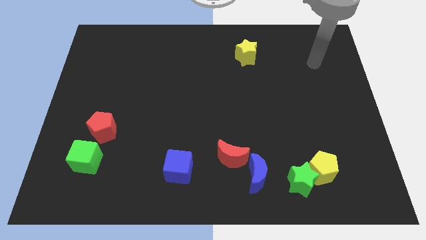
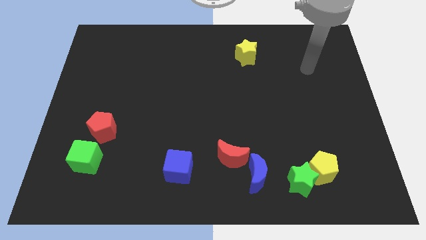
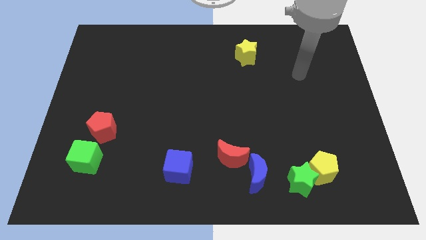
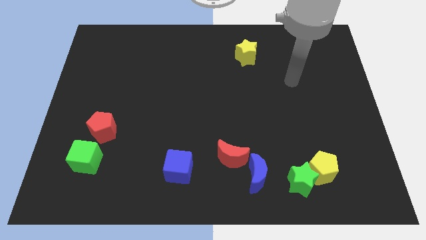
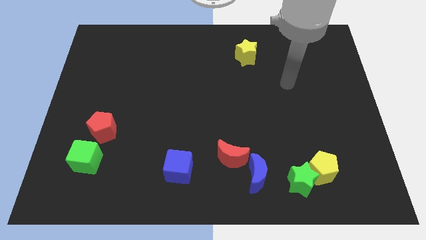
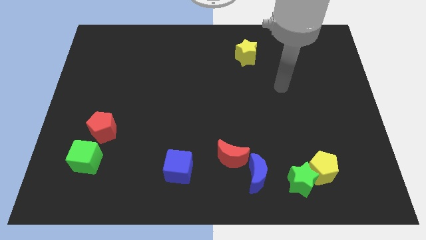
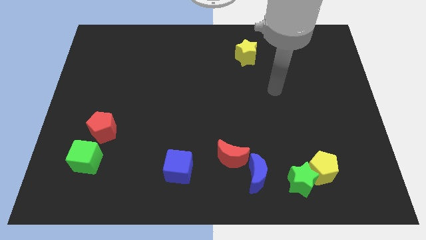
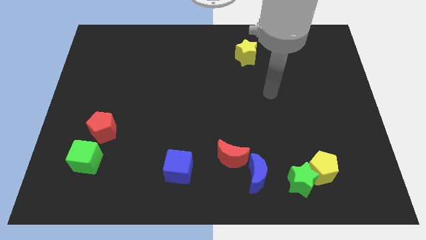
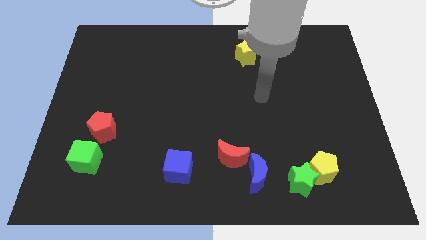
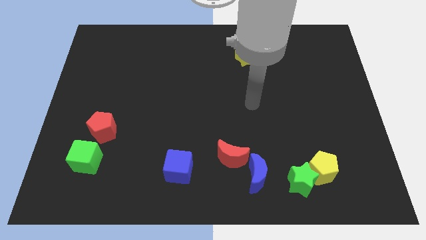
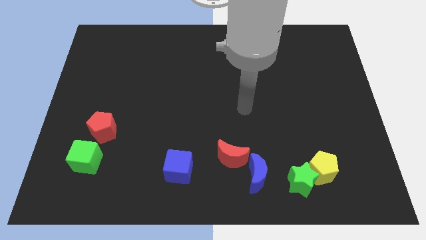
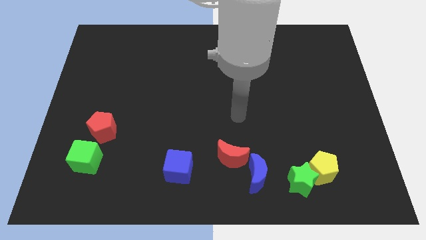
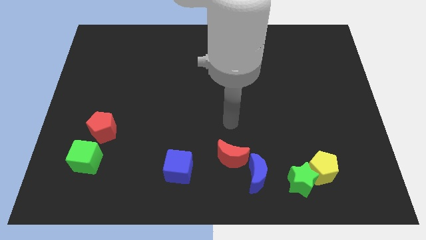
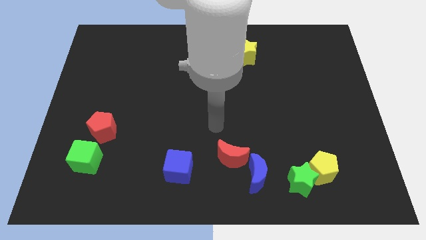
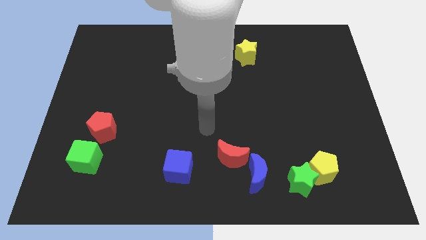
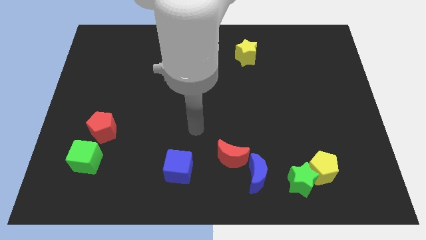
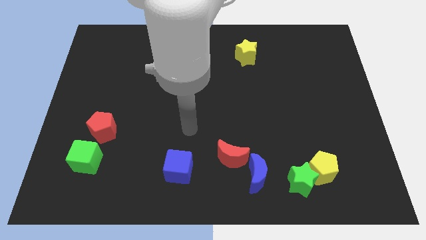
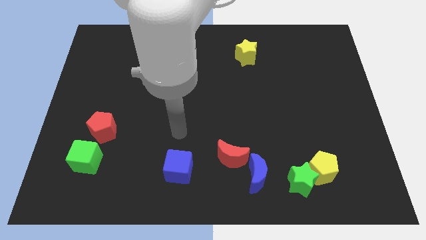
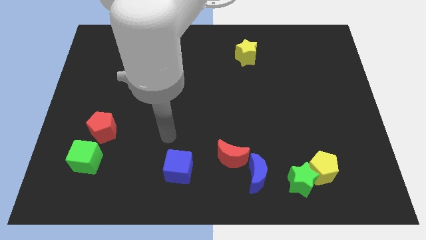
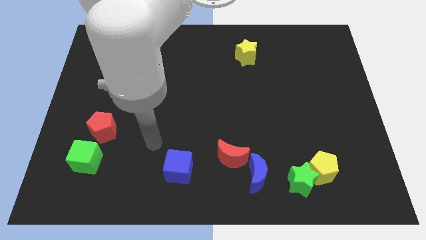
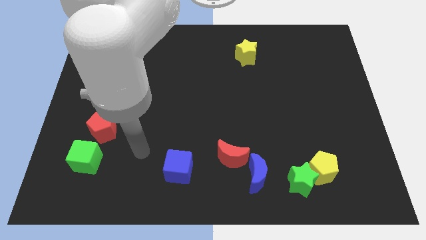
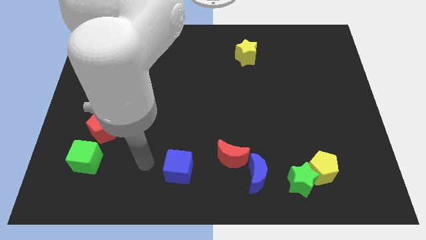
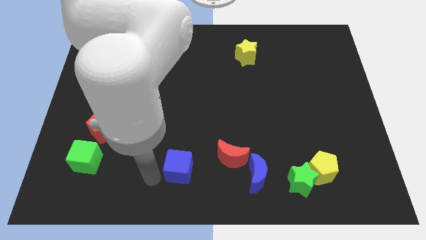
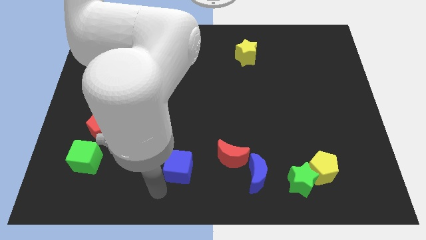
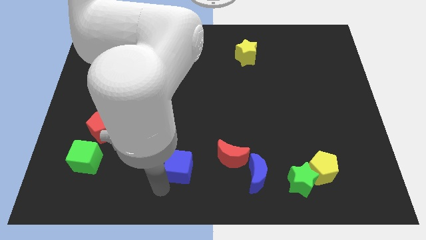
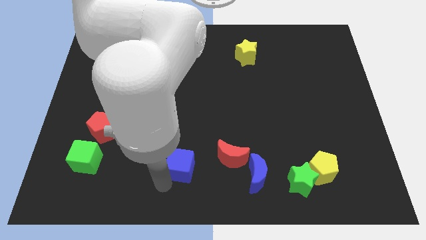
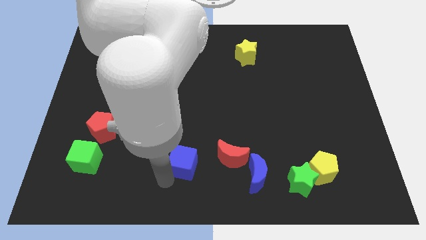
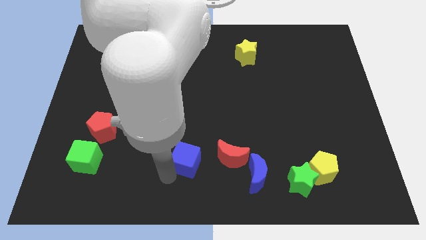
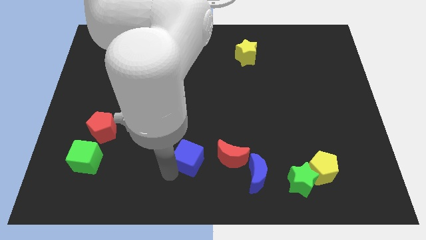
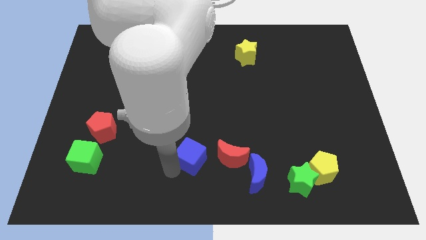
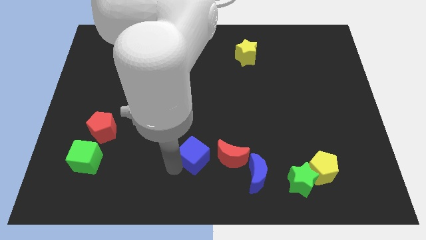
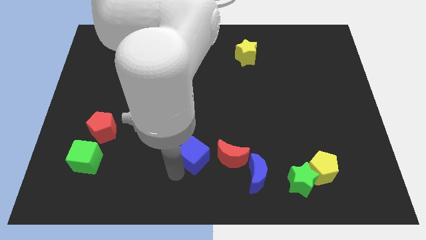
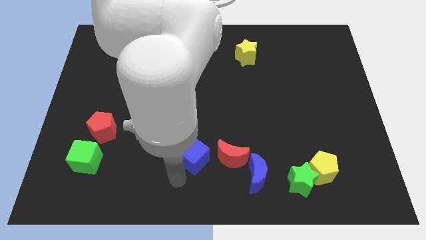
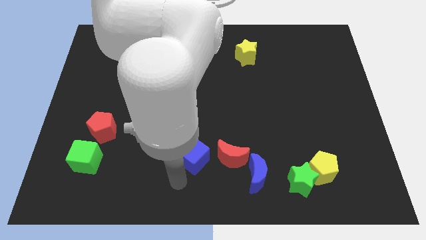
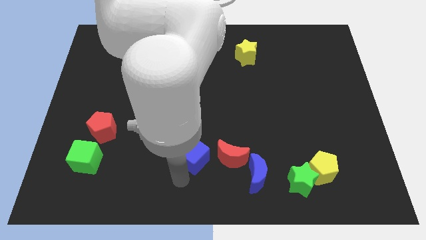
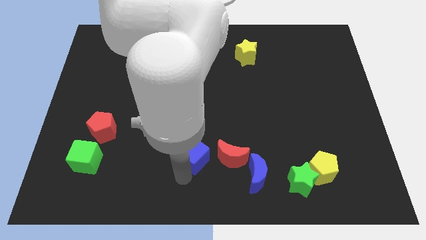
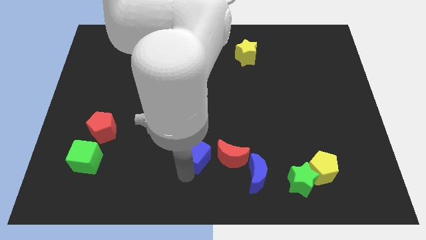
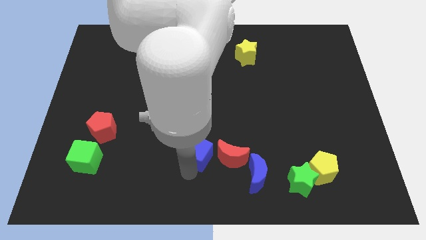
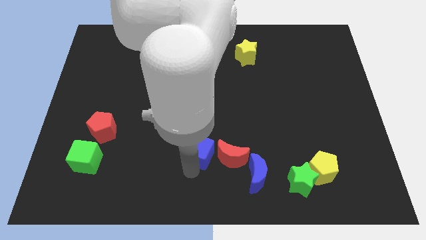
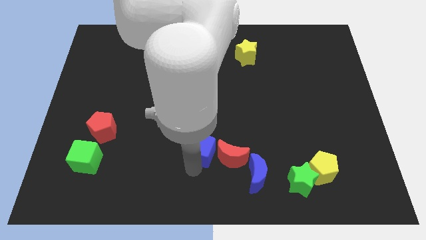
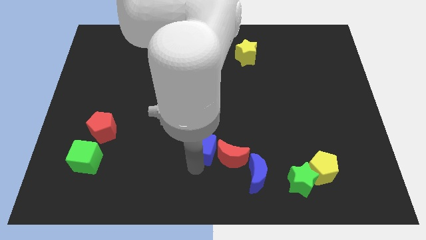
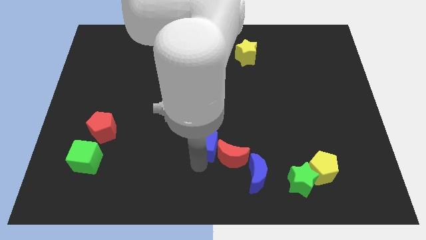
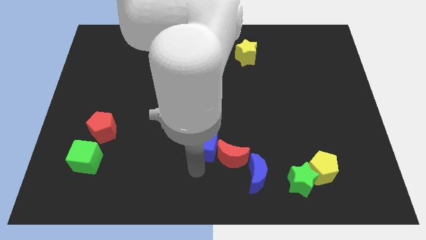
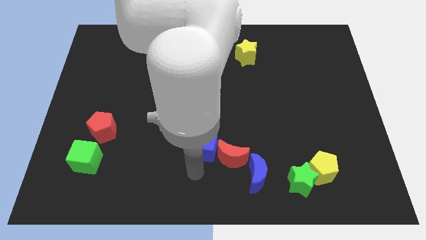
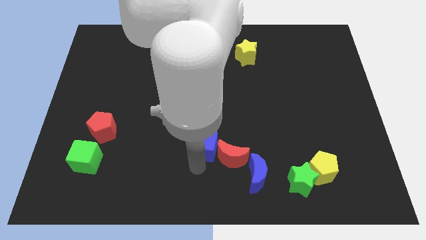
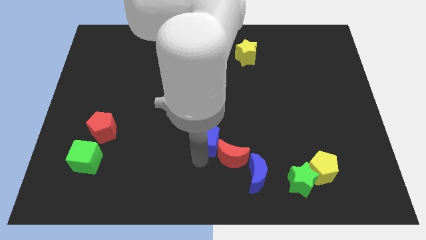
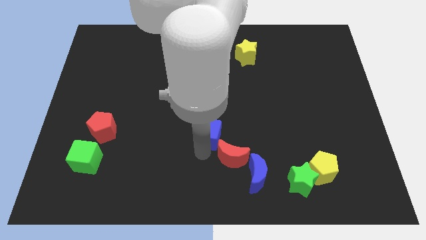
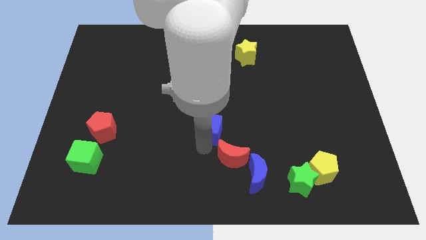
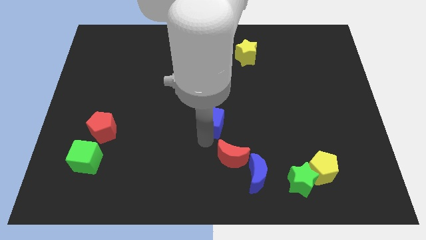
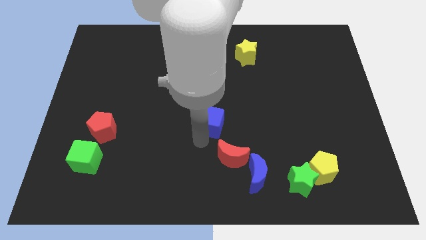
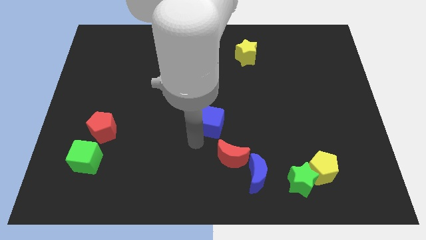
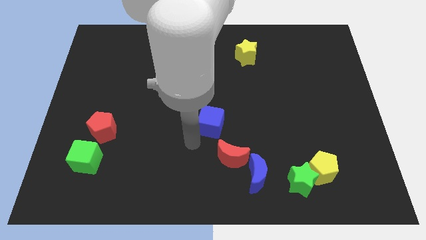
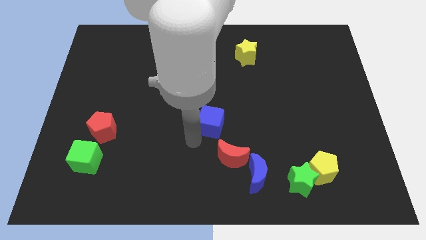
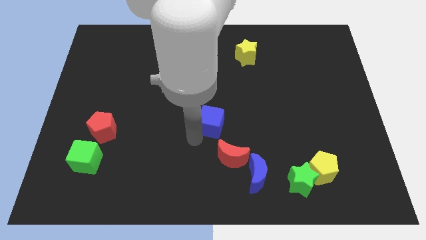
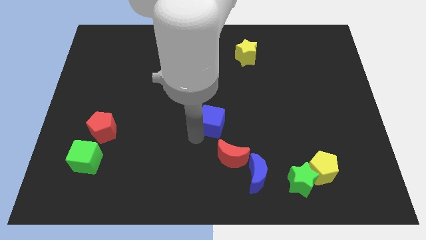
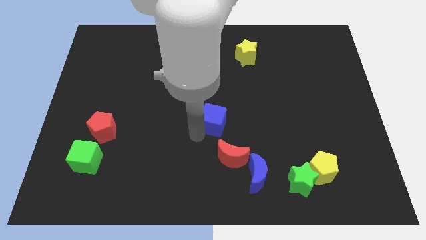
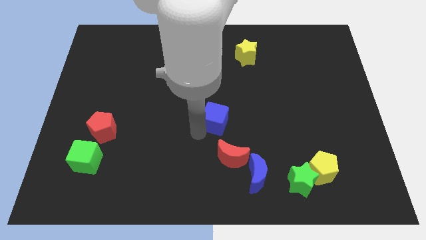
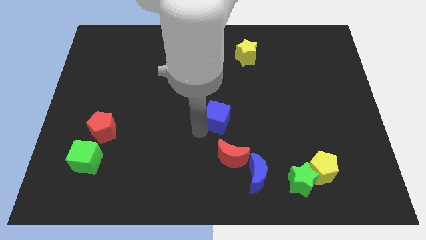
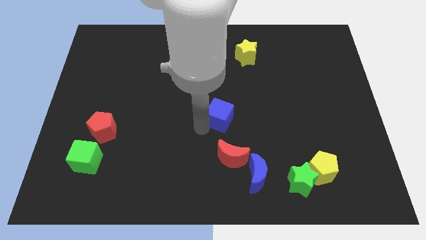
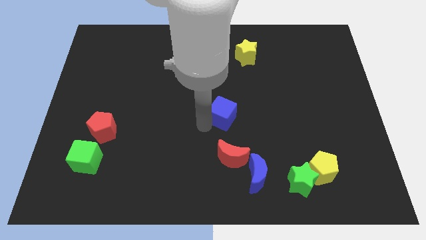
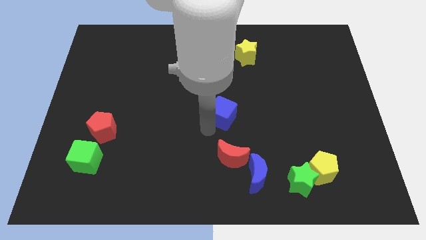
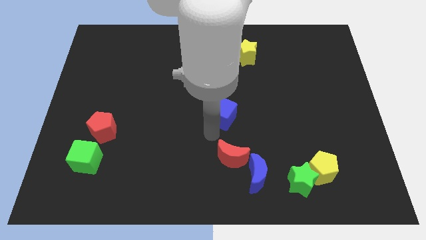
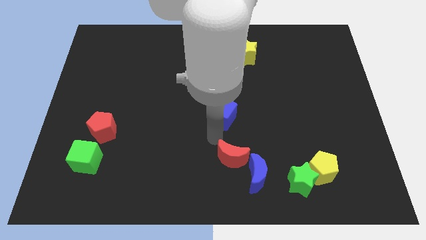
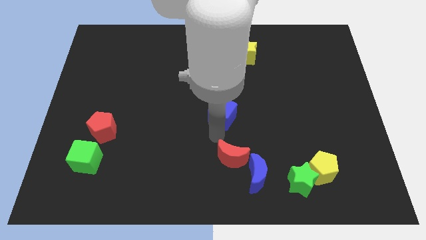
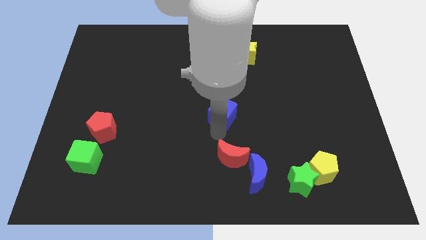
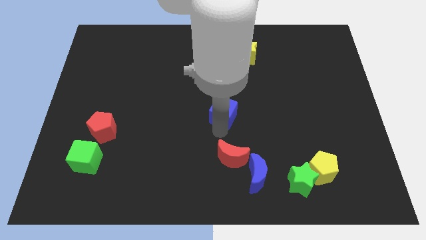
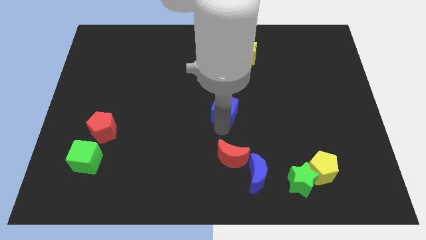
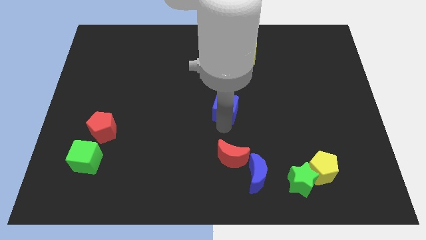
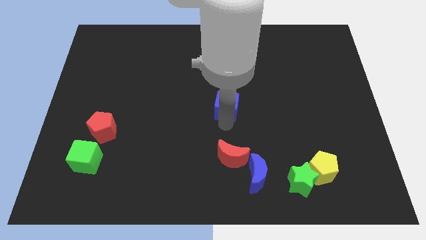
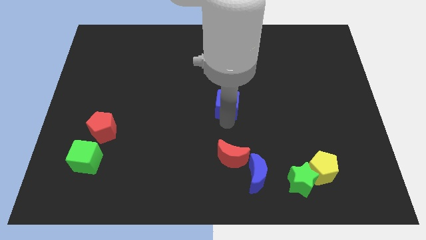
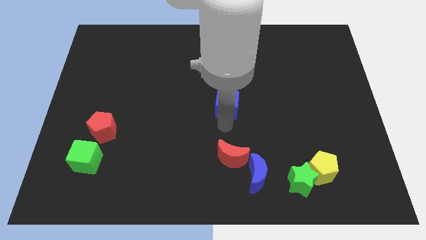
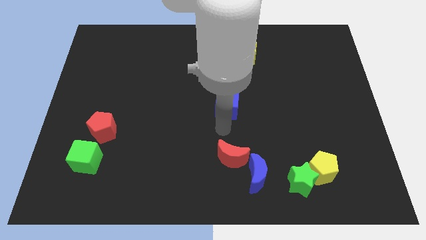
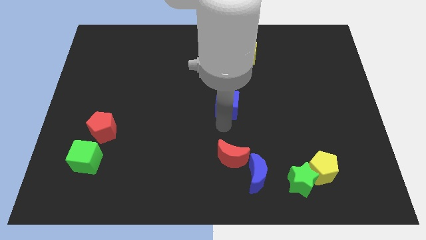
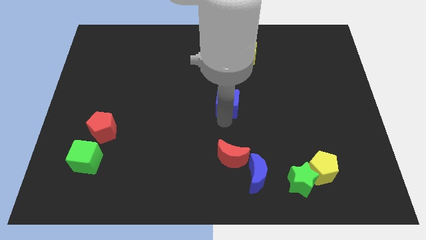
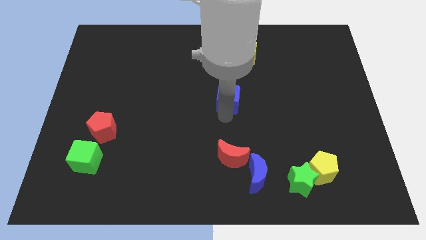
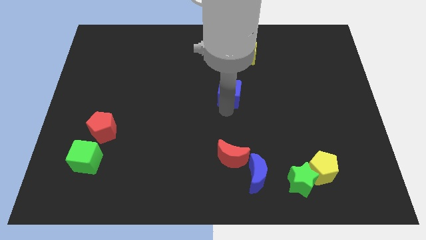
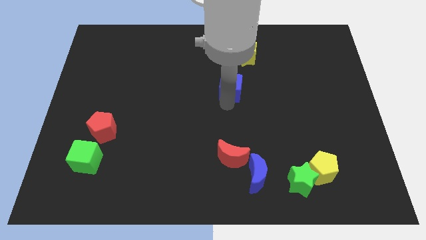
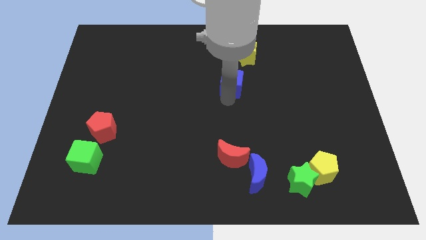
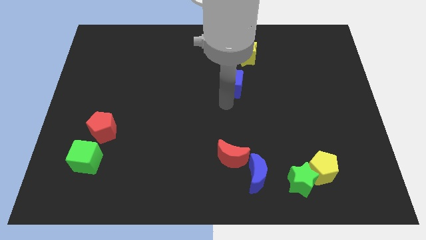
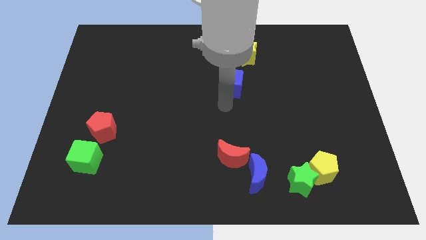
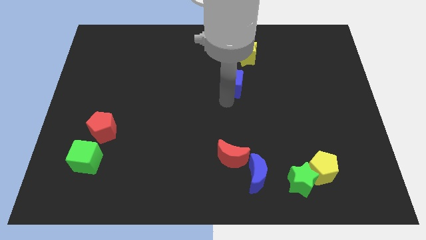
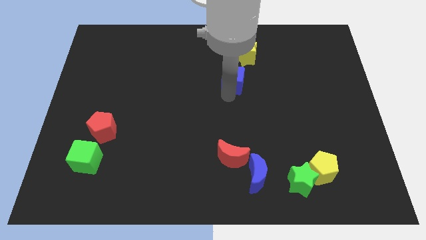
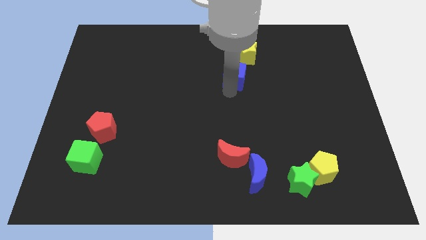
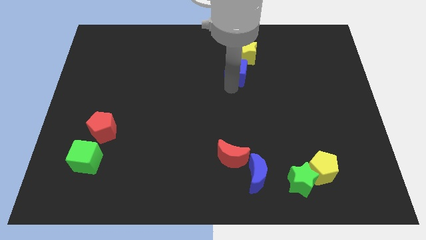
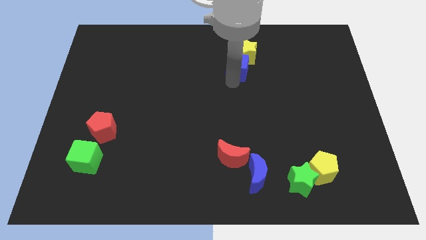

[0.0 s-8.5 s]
put the blue cube close to the yellow star

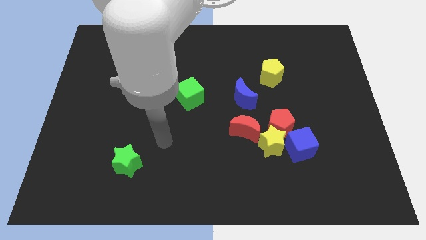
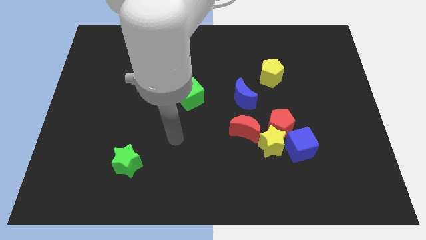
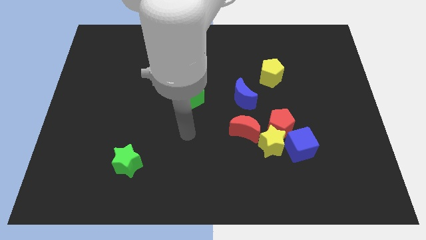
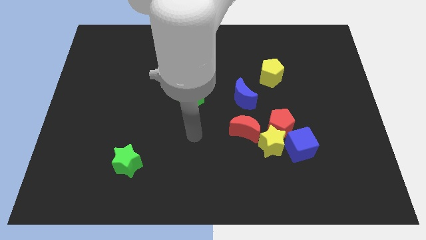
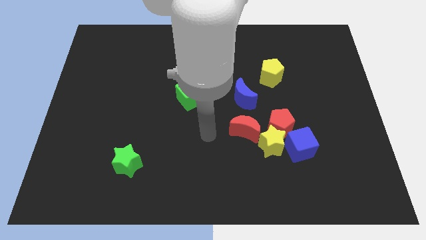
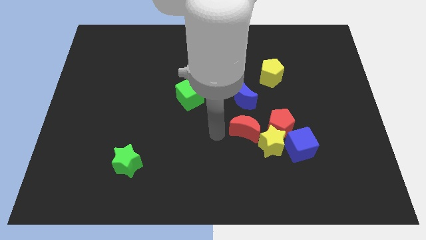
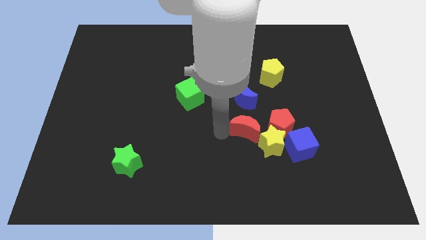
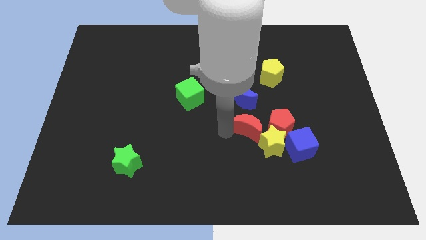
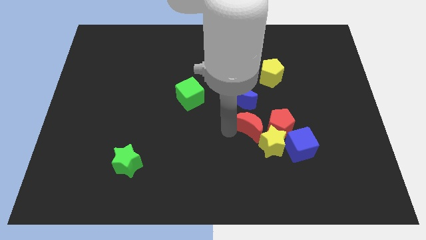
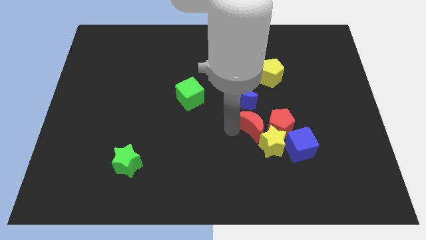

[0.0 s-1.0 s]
push the red moon towards the red pentagon
